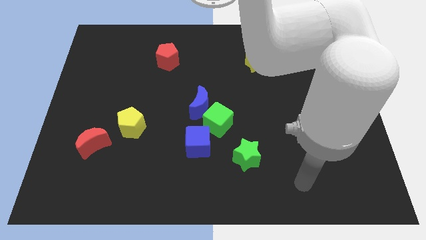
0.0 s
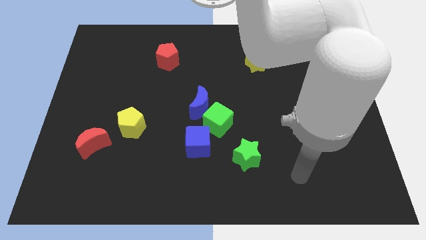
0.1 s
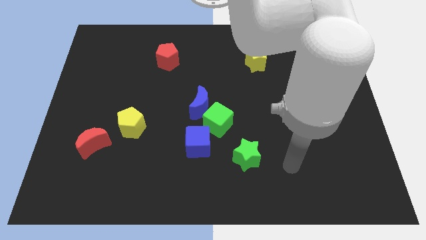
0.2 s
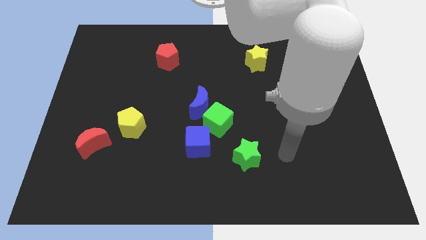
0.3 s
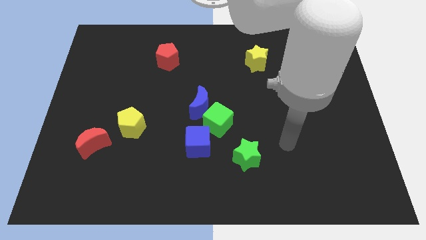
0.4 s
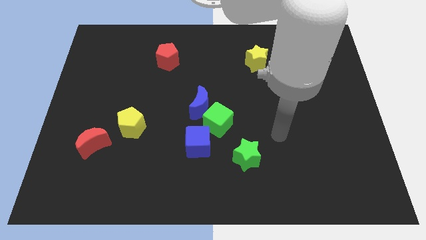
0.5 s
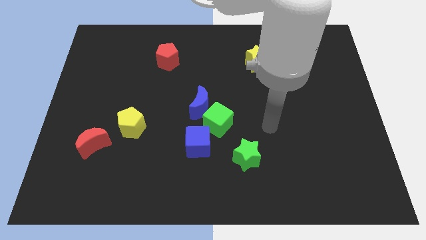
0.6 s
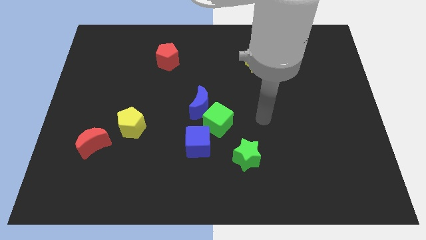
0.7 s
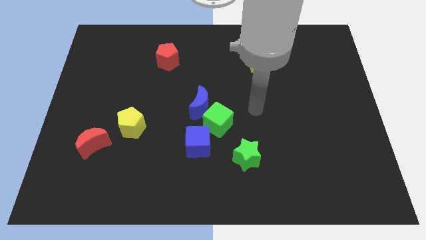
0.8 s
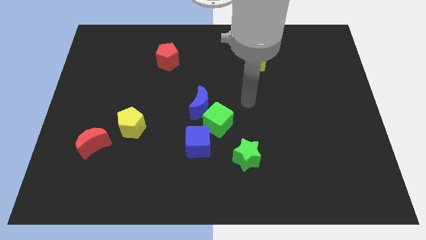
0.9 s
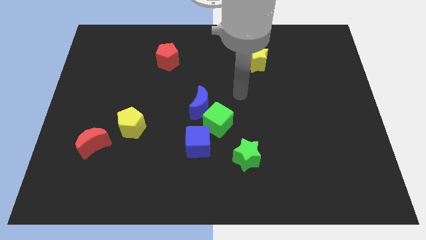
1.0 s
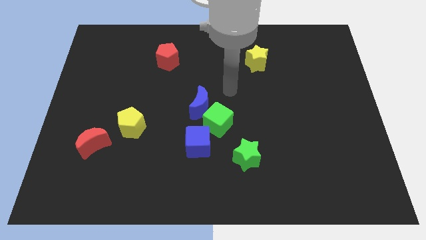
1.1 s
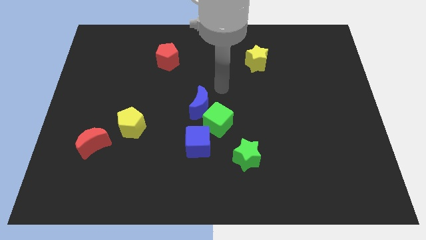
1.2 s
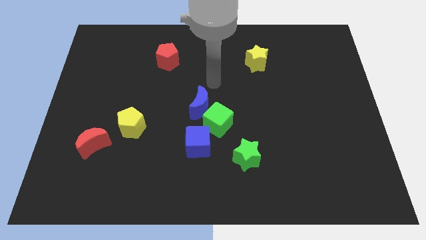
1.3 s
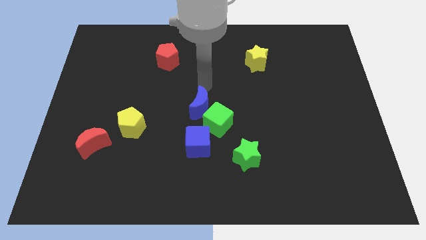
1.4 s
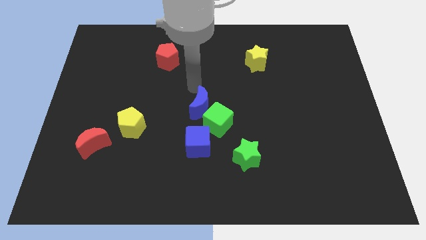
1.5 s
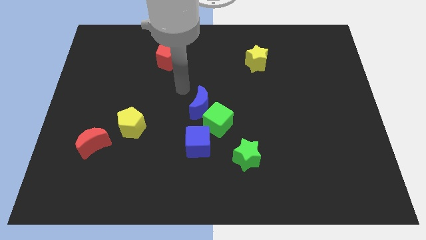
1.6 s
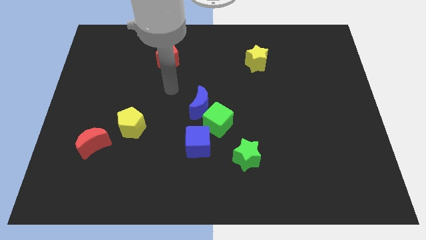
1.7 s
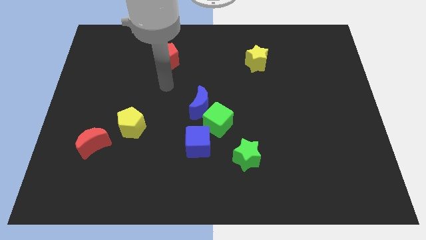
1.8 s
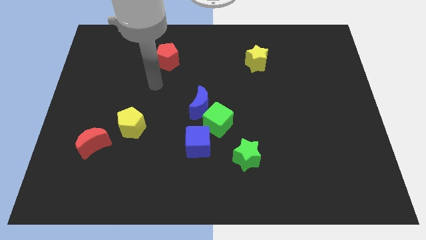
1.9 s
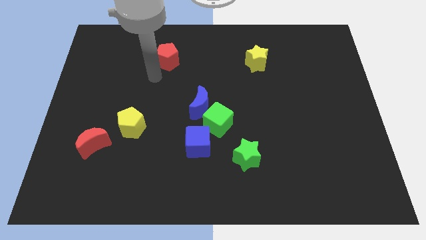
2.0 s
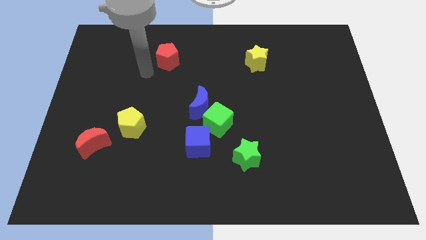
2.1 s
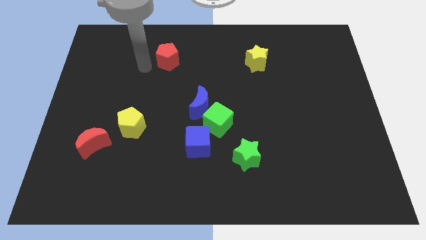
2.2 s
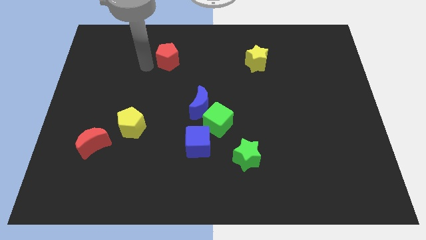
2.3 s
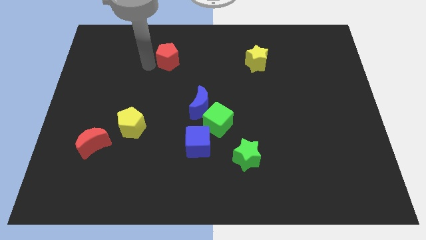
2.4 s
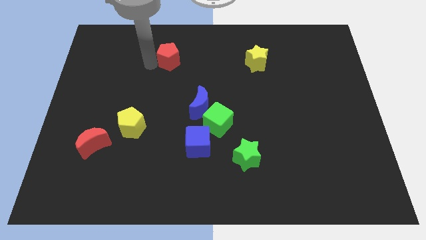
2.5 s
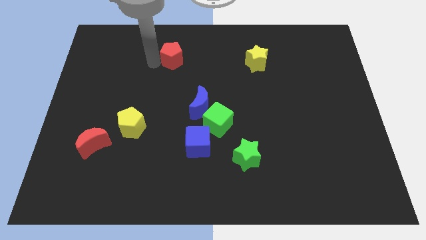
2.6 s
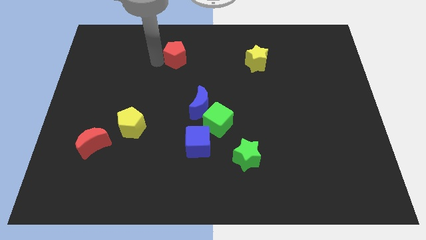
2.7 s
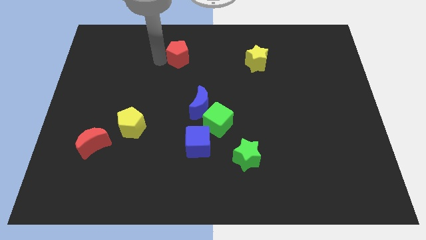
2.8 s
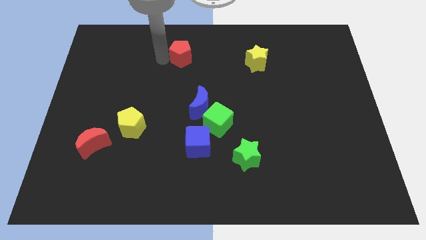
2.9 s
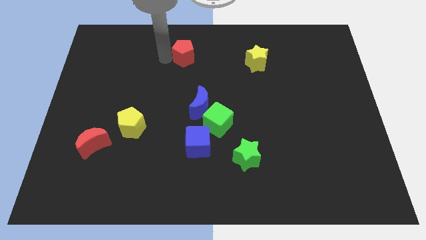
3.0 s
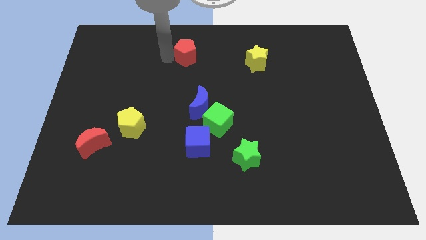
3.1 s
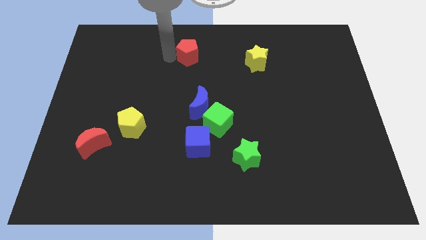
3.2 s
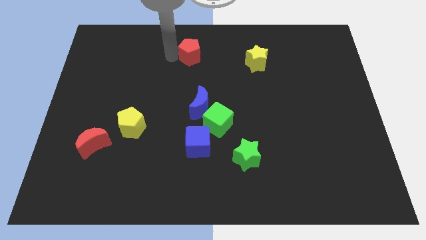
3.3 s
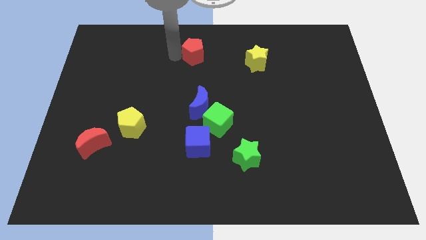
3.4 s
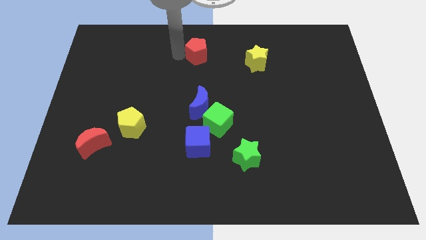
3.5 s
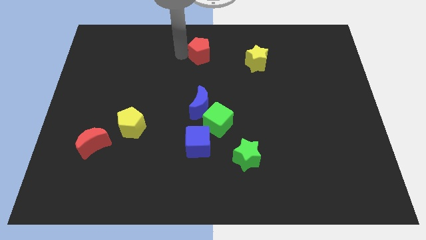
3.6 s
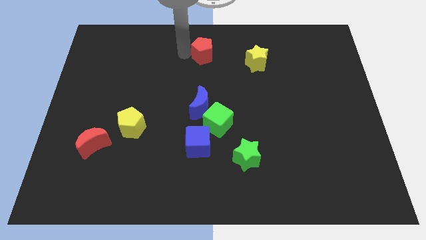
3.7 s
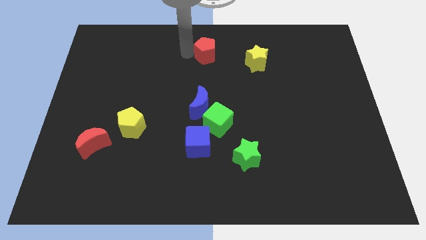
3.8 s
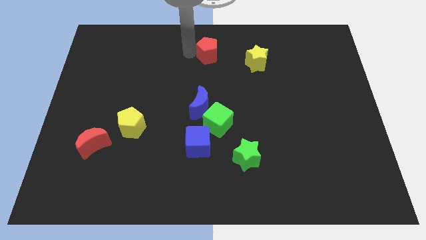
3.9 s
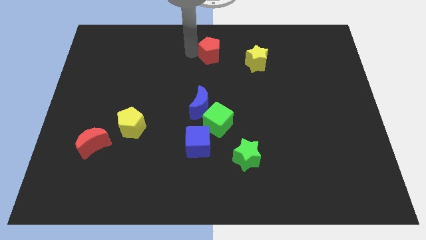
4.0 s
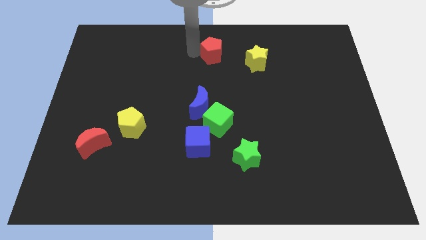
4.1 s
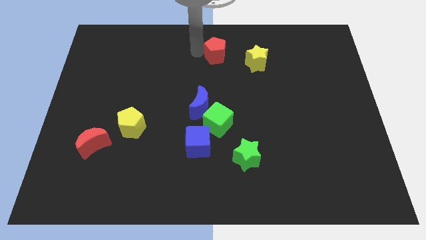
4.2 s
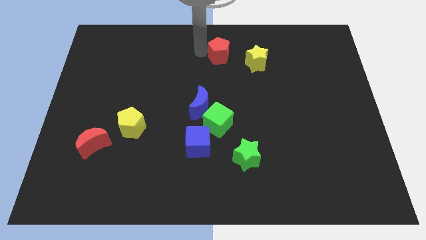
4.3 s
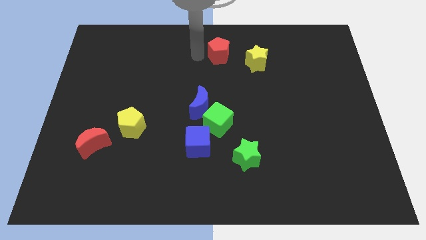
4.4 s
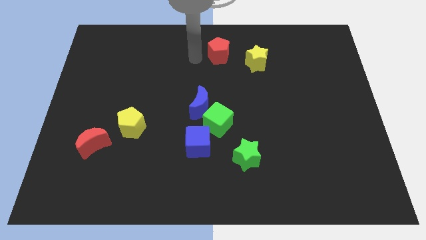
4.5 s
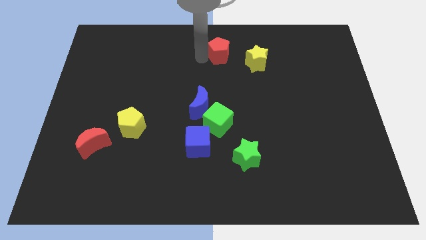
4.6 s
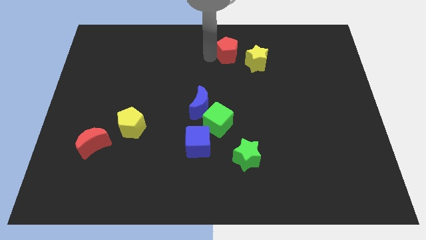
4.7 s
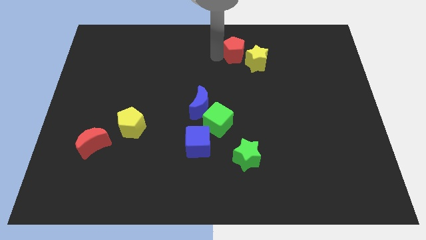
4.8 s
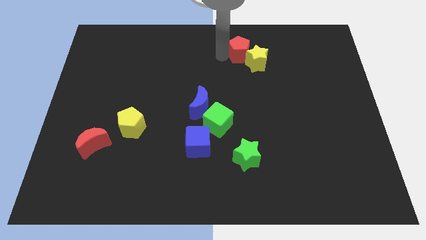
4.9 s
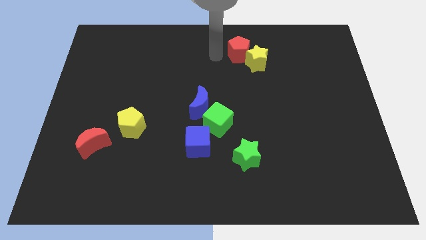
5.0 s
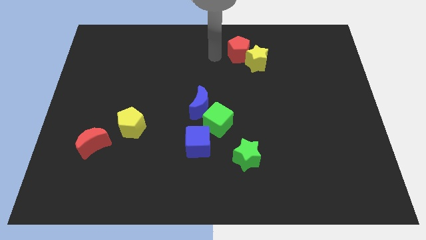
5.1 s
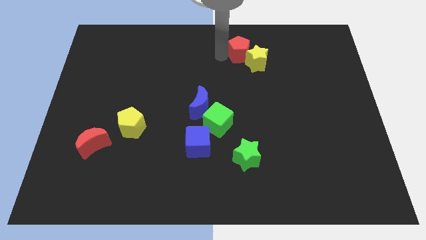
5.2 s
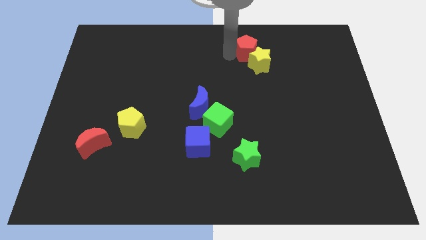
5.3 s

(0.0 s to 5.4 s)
move the red pentagon to the right

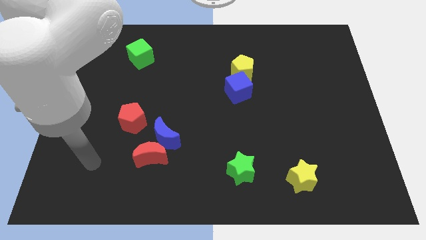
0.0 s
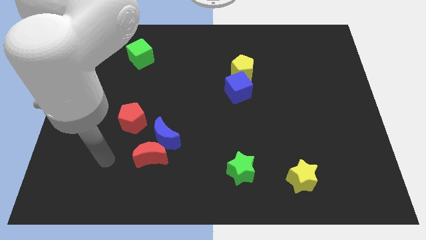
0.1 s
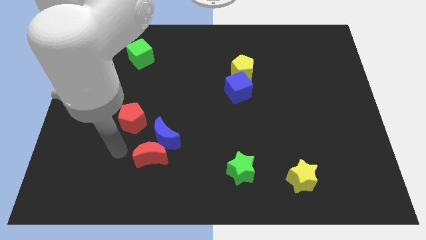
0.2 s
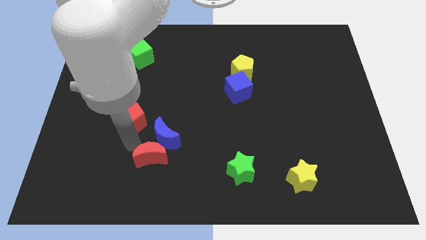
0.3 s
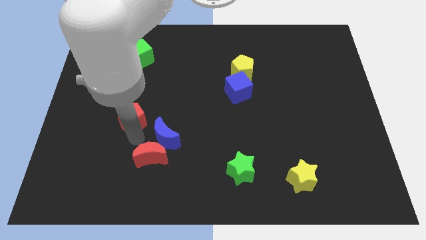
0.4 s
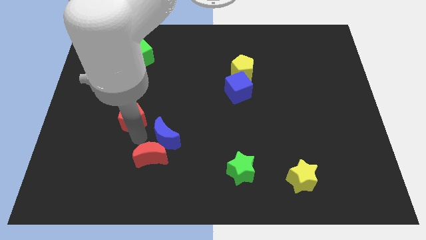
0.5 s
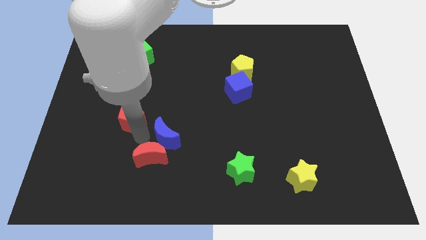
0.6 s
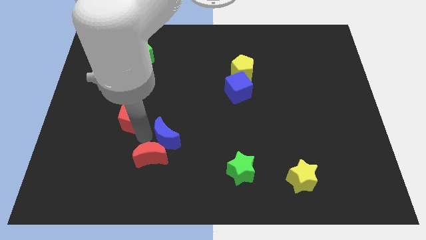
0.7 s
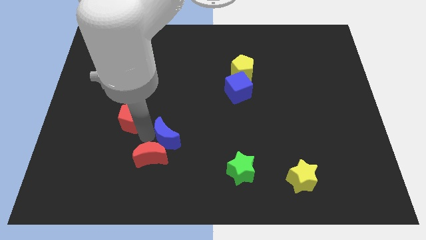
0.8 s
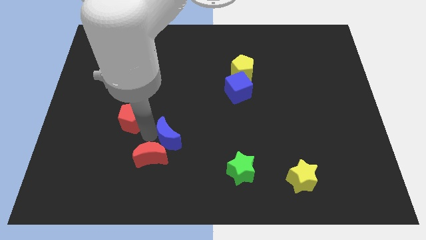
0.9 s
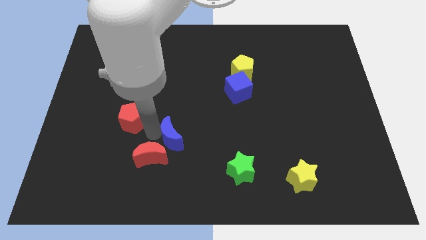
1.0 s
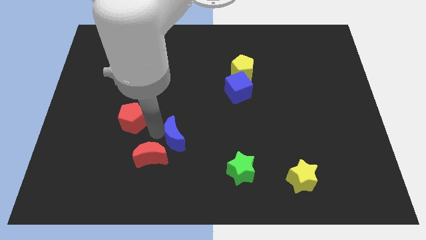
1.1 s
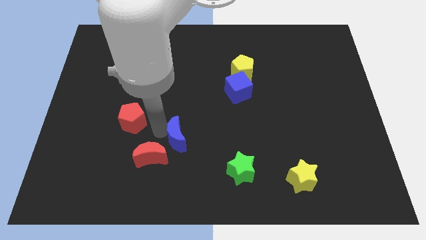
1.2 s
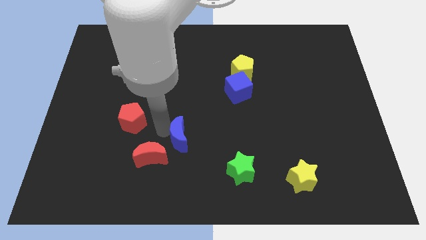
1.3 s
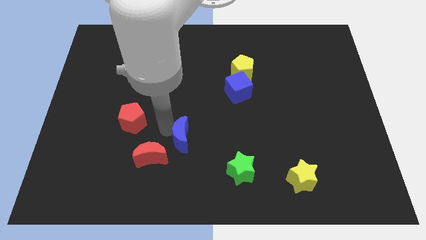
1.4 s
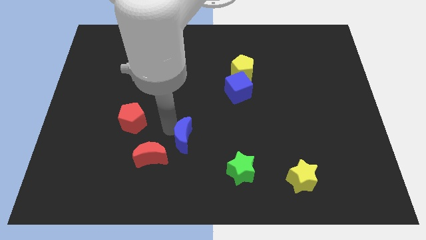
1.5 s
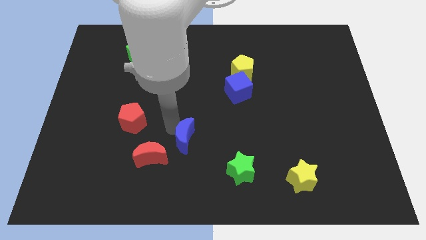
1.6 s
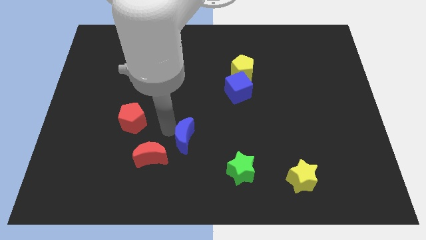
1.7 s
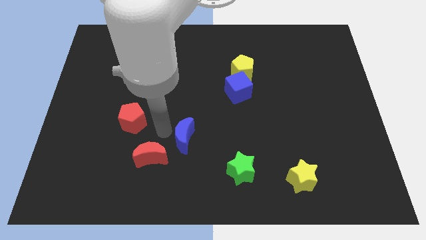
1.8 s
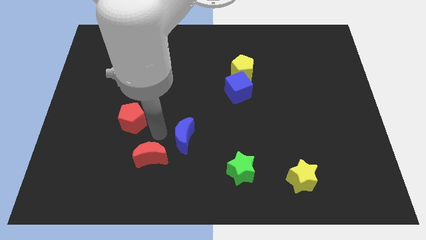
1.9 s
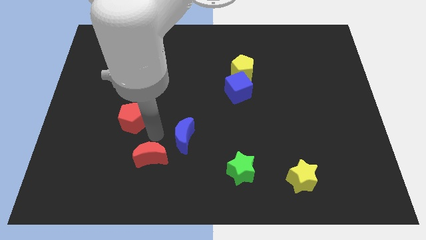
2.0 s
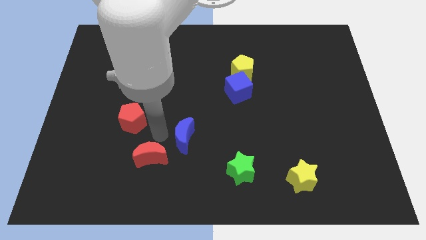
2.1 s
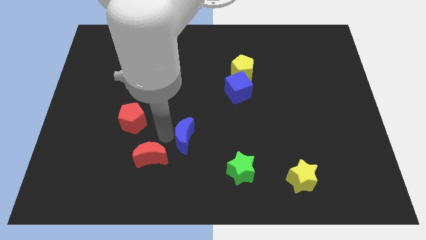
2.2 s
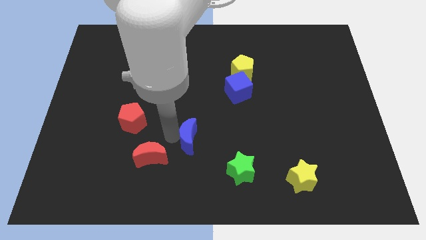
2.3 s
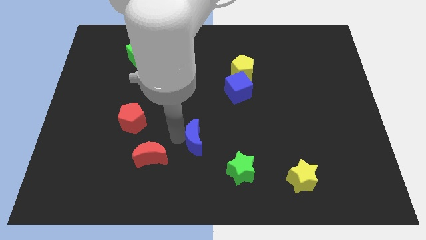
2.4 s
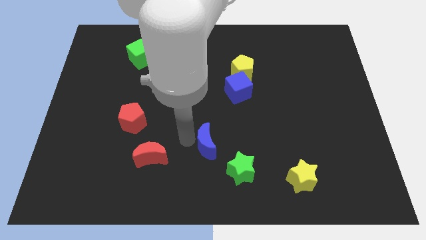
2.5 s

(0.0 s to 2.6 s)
slightly move the blue moon to the right
